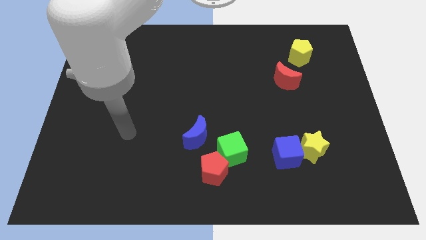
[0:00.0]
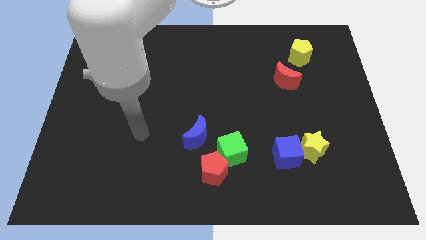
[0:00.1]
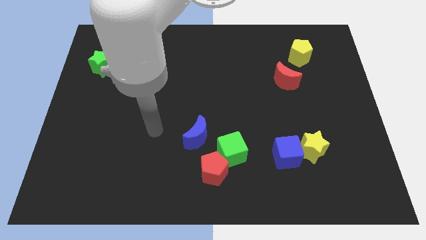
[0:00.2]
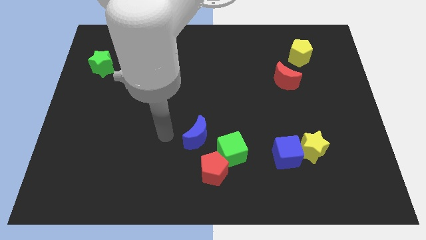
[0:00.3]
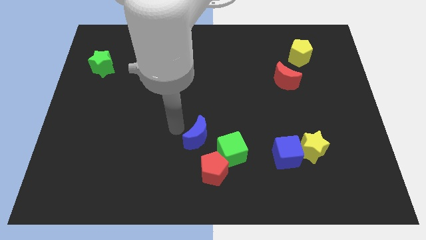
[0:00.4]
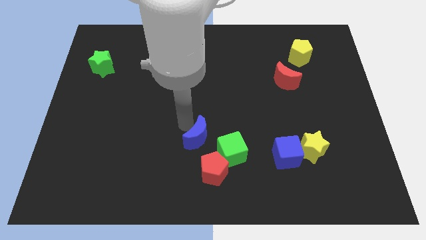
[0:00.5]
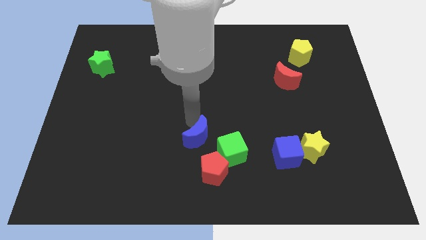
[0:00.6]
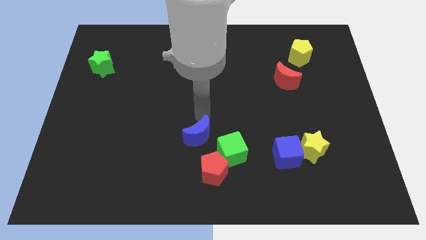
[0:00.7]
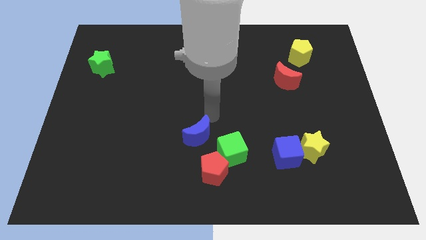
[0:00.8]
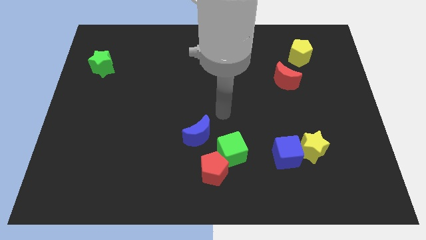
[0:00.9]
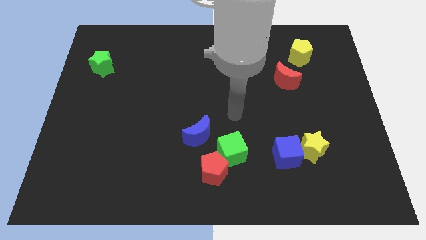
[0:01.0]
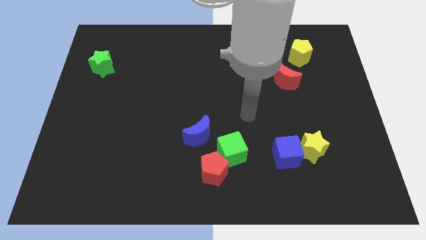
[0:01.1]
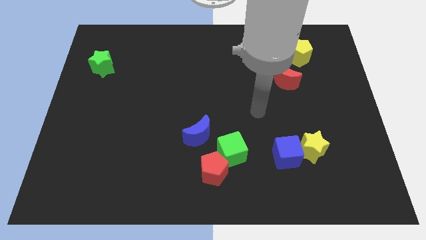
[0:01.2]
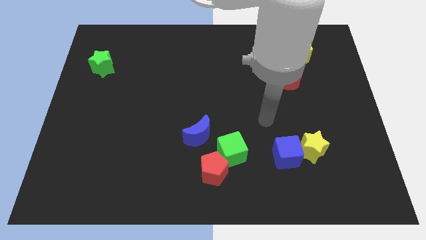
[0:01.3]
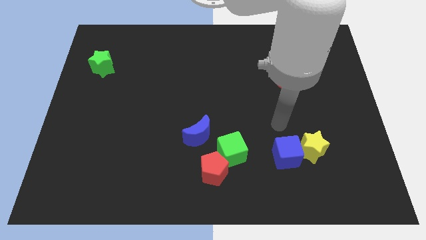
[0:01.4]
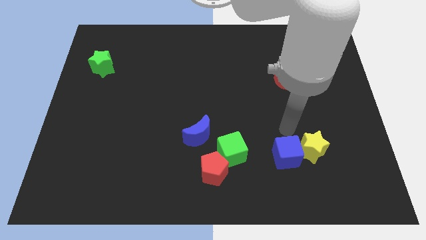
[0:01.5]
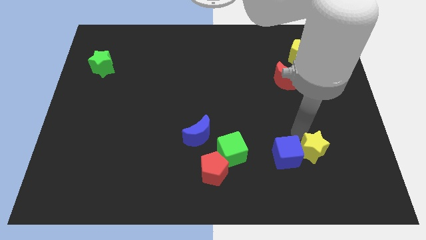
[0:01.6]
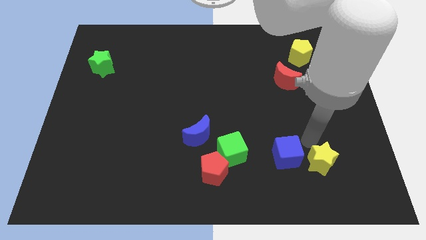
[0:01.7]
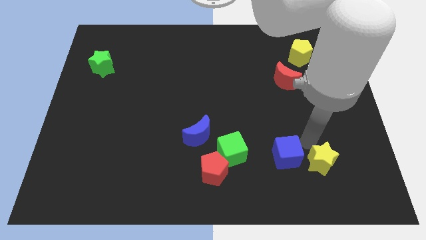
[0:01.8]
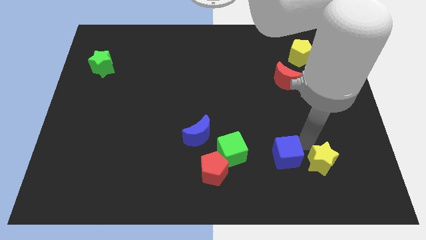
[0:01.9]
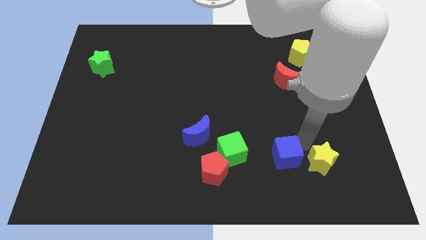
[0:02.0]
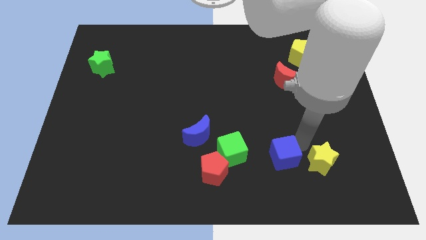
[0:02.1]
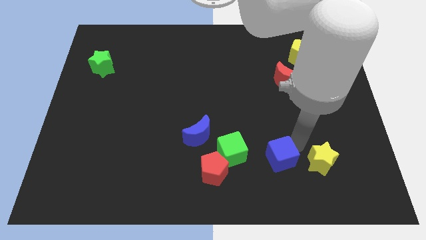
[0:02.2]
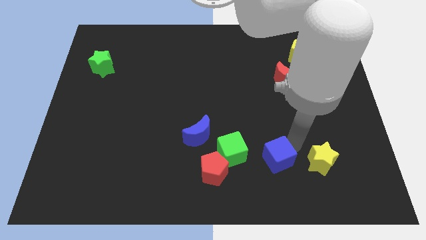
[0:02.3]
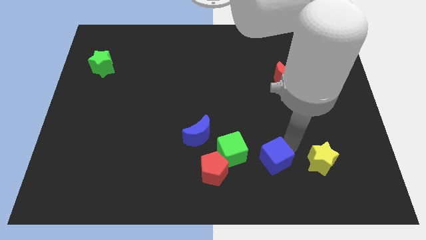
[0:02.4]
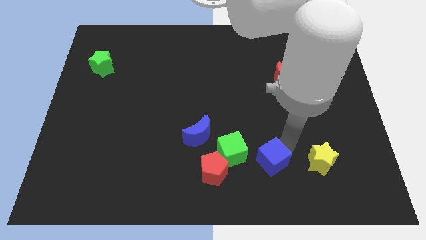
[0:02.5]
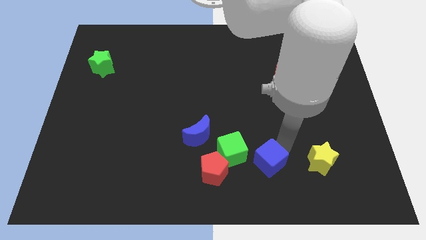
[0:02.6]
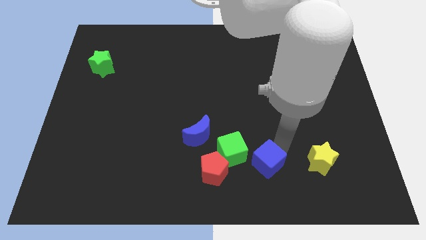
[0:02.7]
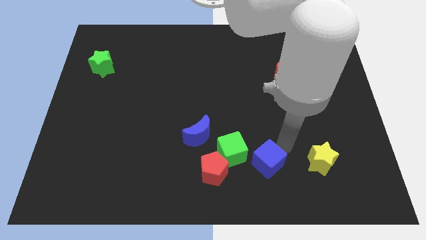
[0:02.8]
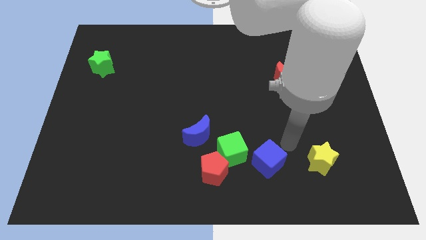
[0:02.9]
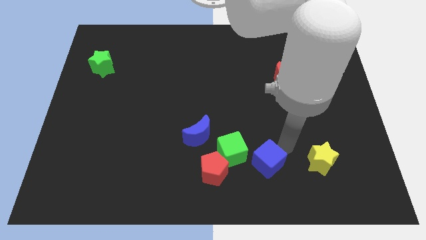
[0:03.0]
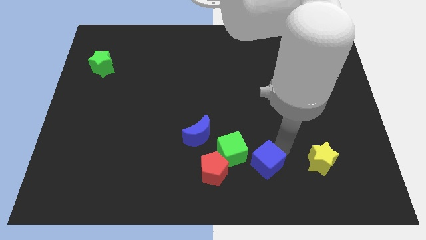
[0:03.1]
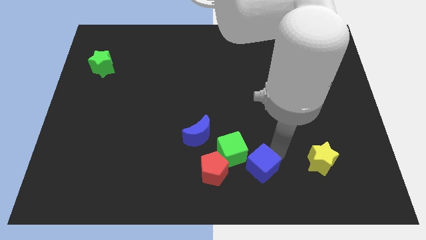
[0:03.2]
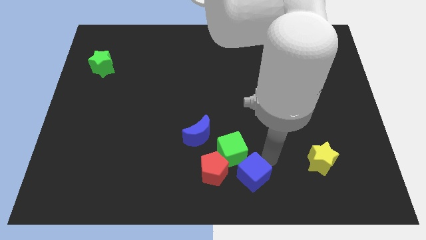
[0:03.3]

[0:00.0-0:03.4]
move the blue cube to the left a little

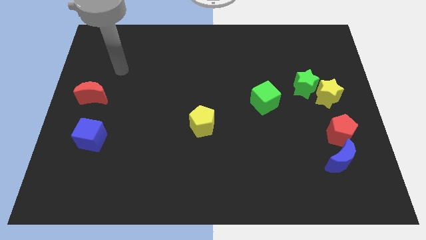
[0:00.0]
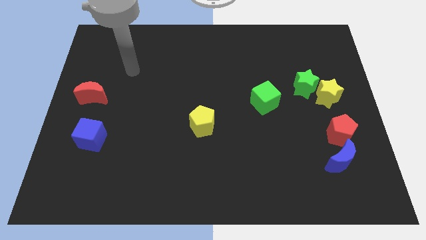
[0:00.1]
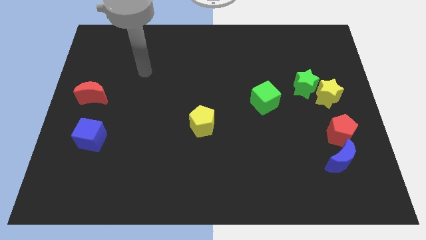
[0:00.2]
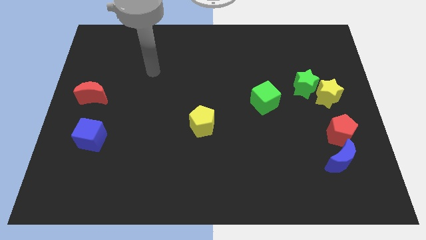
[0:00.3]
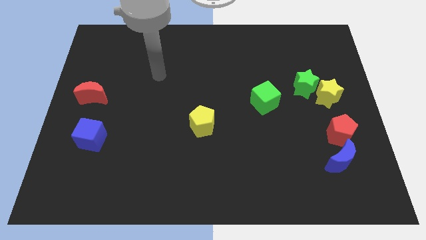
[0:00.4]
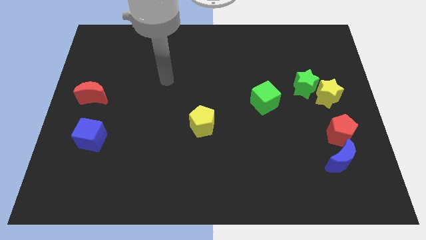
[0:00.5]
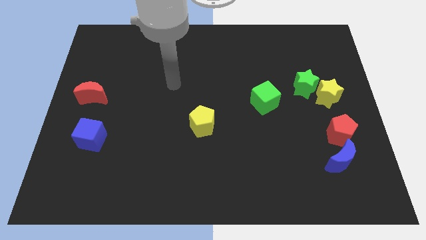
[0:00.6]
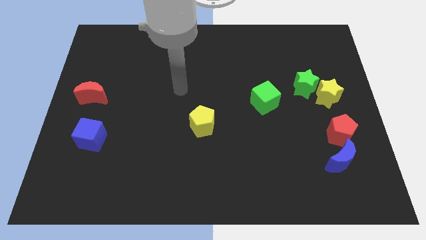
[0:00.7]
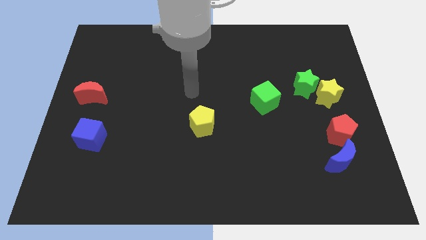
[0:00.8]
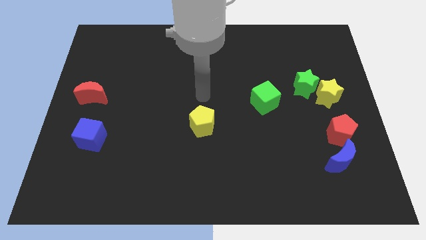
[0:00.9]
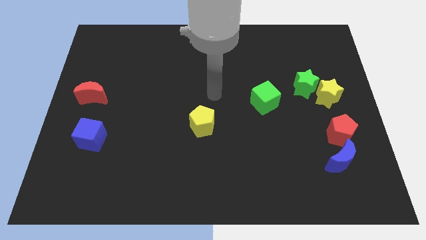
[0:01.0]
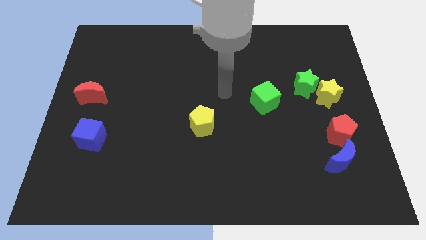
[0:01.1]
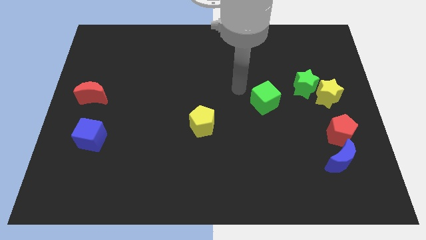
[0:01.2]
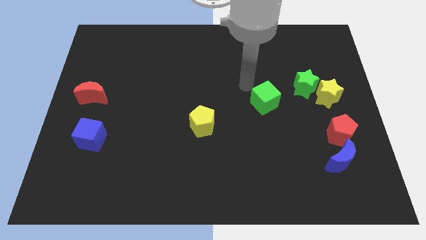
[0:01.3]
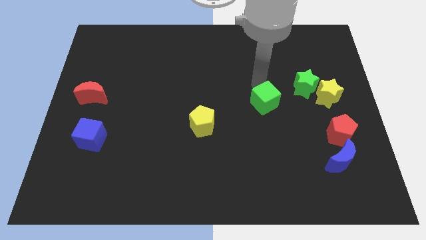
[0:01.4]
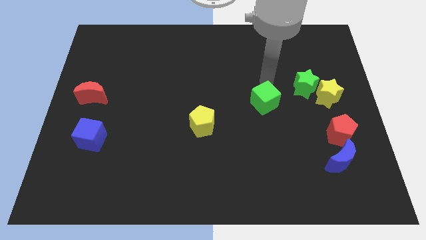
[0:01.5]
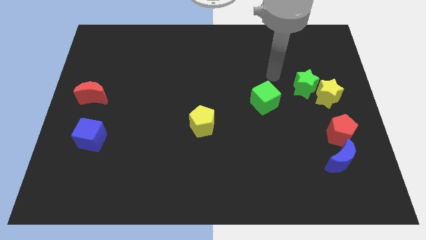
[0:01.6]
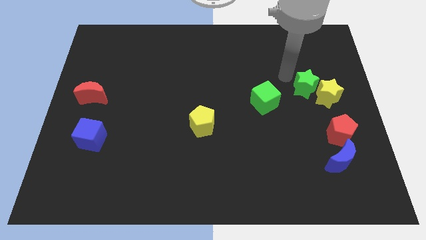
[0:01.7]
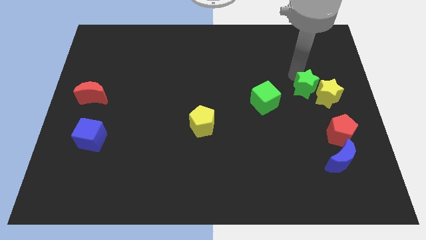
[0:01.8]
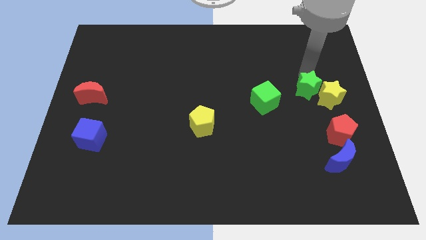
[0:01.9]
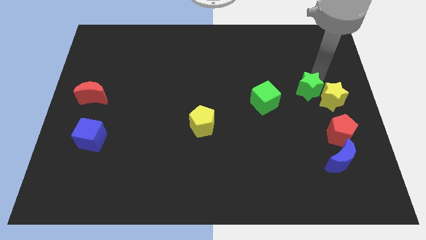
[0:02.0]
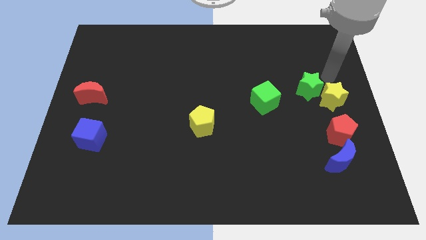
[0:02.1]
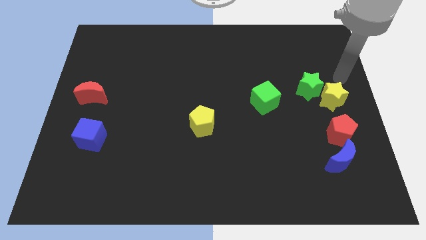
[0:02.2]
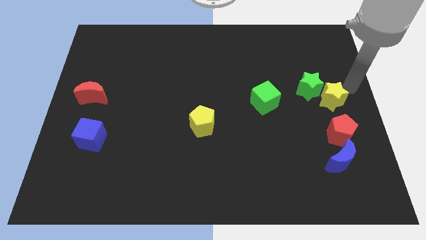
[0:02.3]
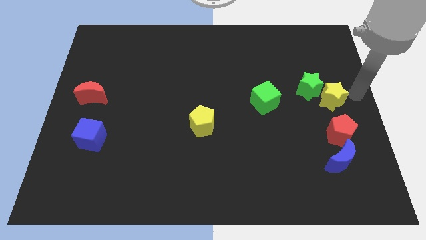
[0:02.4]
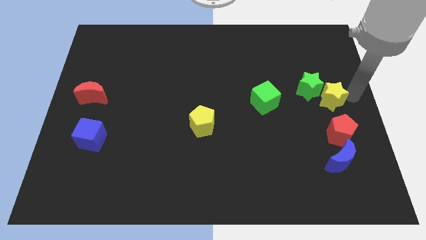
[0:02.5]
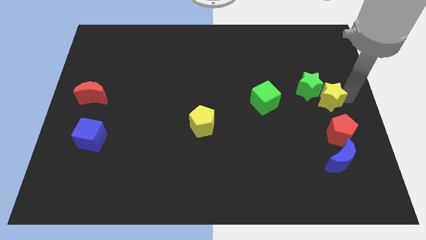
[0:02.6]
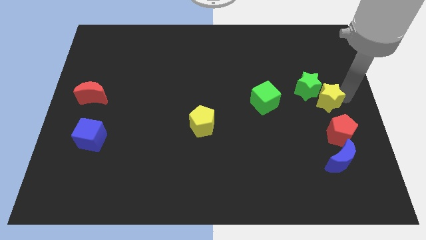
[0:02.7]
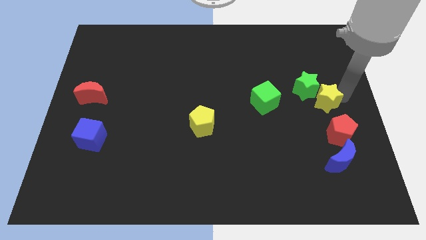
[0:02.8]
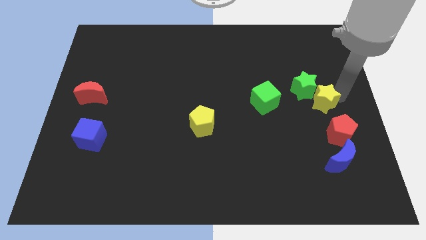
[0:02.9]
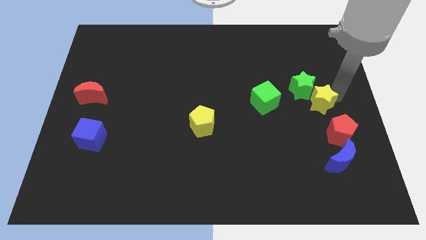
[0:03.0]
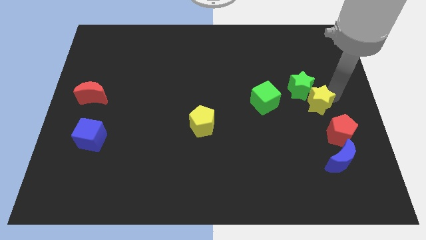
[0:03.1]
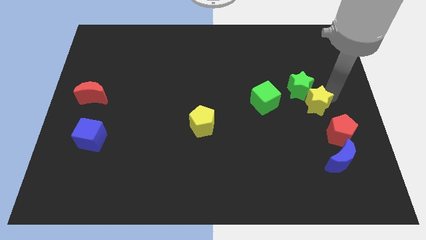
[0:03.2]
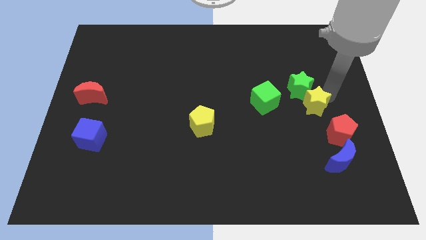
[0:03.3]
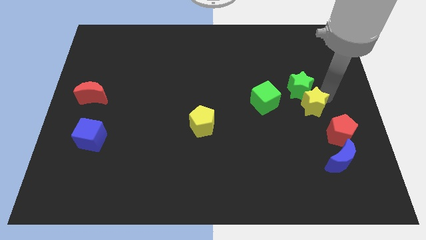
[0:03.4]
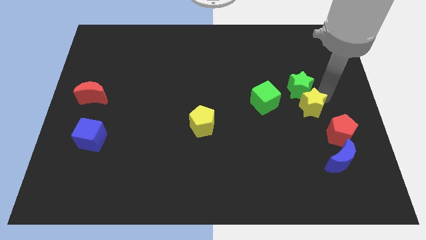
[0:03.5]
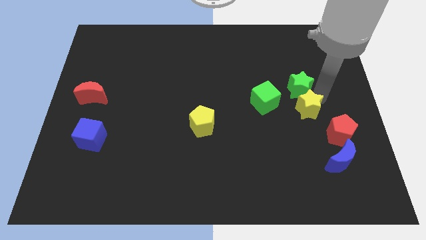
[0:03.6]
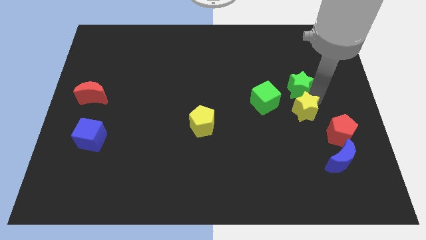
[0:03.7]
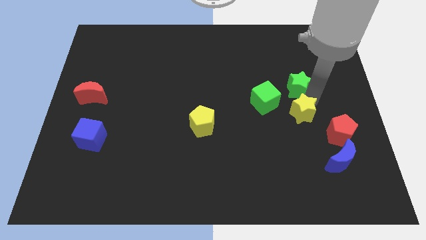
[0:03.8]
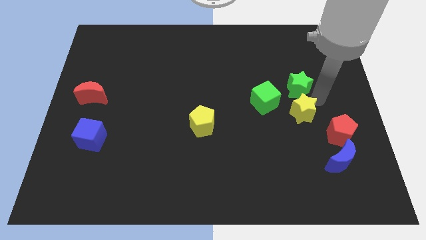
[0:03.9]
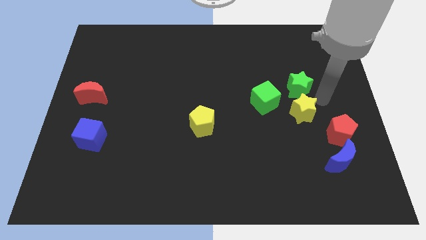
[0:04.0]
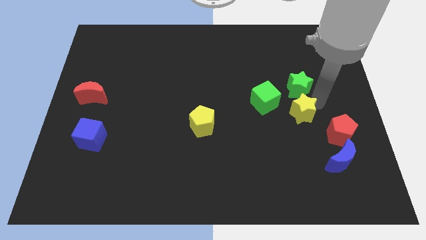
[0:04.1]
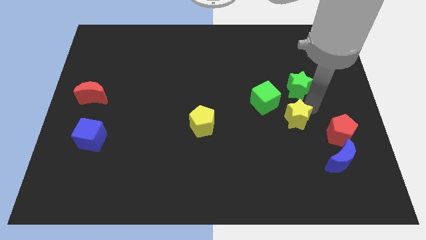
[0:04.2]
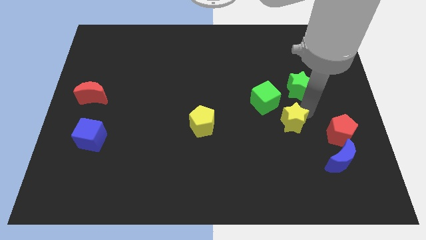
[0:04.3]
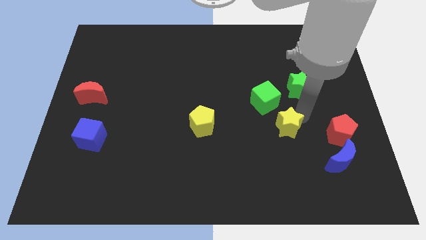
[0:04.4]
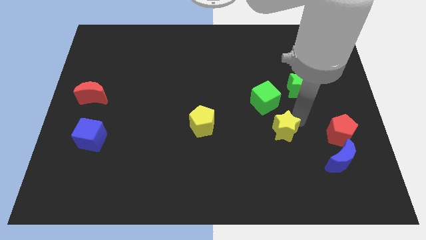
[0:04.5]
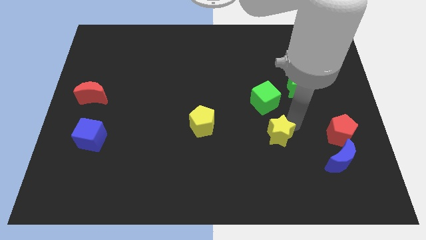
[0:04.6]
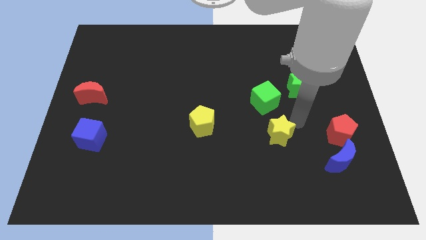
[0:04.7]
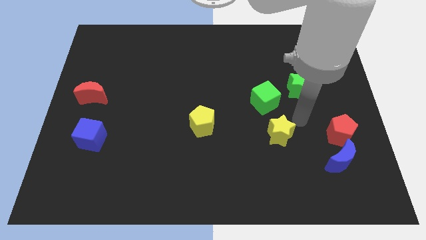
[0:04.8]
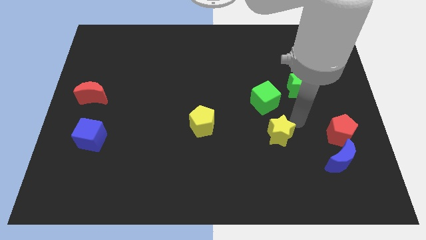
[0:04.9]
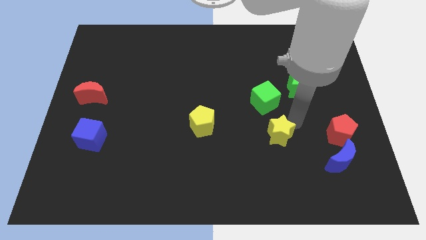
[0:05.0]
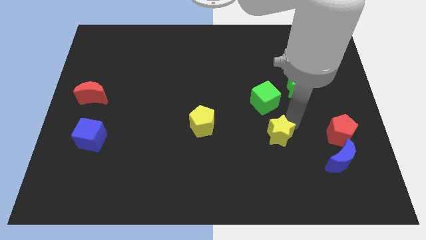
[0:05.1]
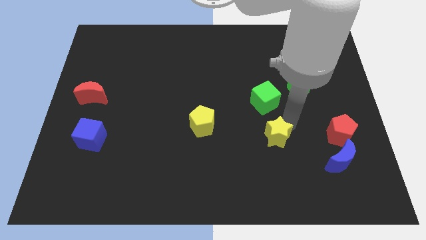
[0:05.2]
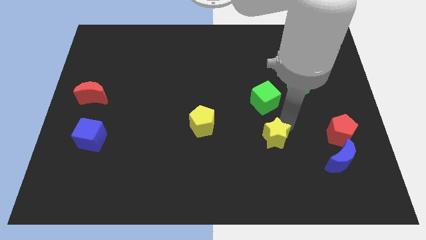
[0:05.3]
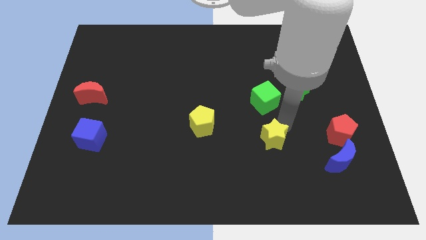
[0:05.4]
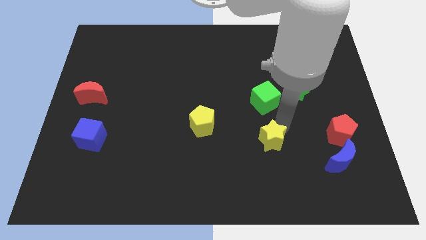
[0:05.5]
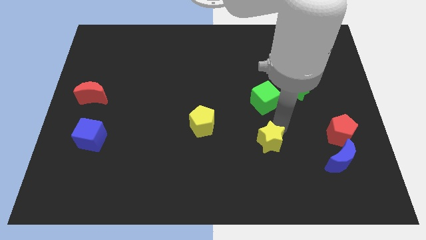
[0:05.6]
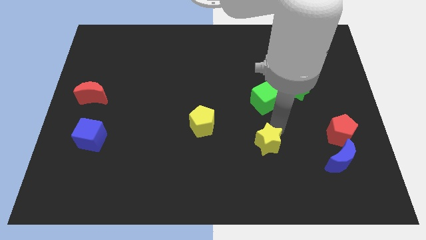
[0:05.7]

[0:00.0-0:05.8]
slide the yellow star downwards and to the left diagonally
